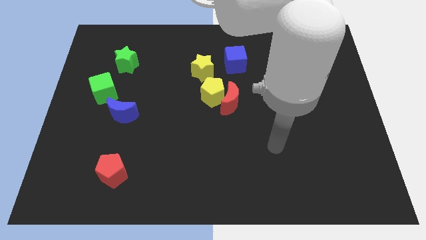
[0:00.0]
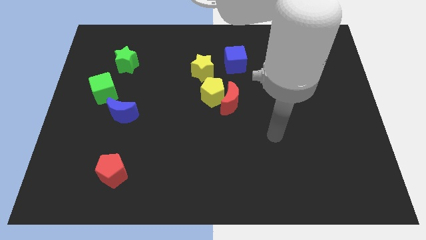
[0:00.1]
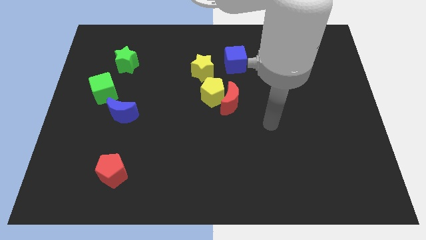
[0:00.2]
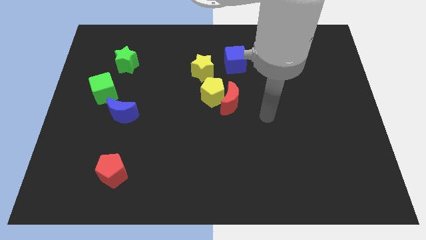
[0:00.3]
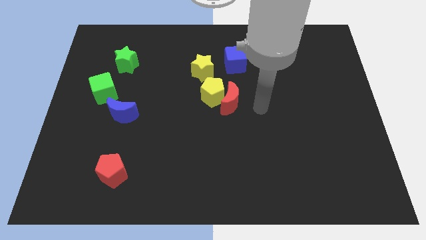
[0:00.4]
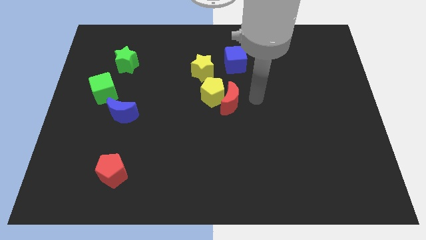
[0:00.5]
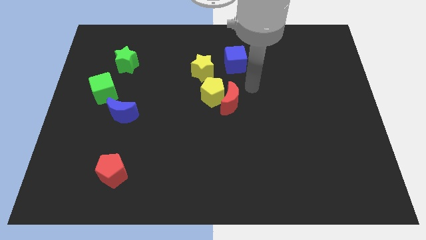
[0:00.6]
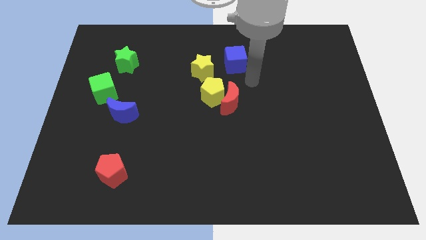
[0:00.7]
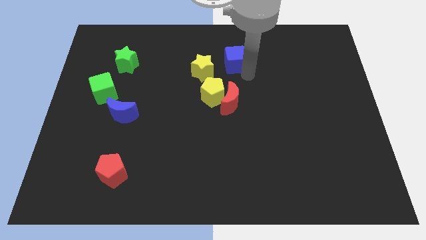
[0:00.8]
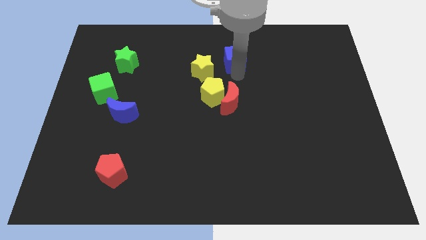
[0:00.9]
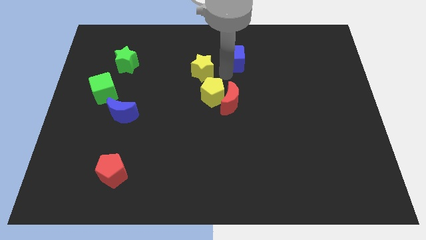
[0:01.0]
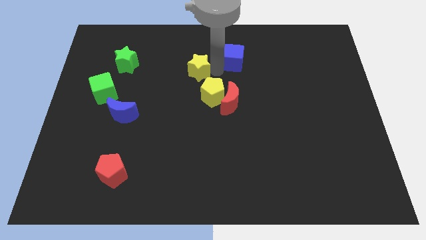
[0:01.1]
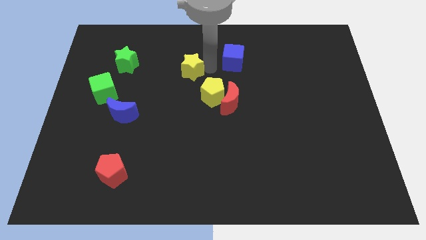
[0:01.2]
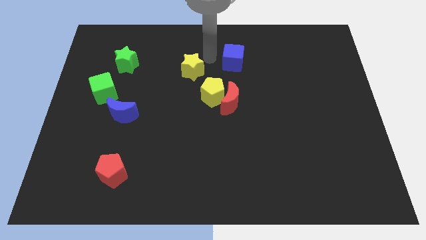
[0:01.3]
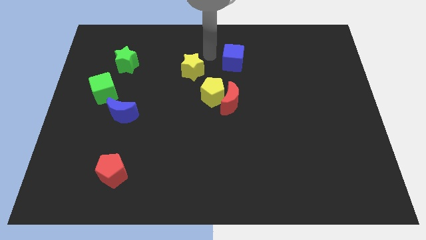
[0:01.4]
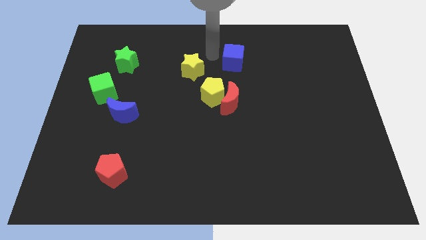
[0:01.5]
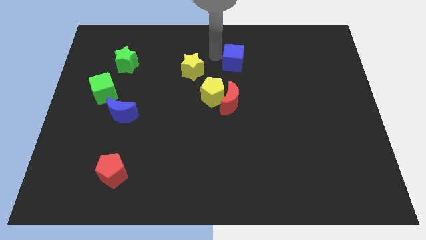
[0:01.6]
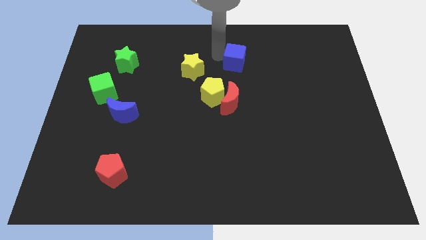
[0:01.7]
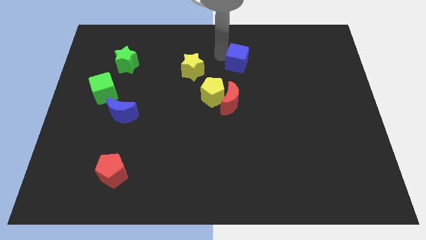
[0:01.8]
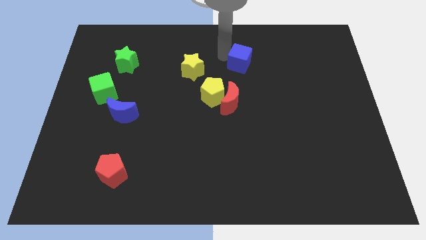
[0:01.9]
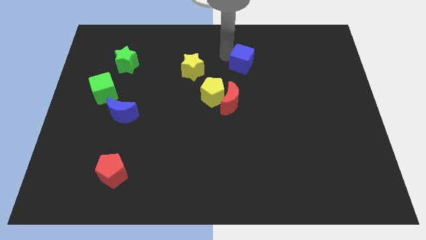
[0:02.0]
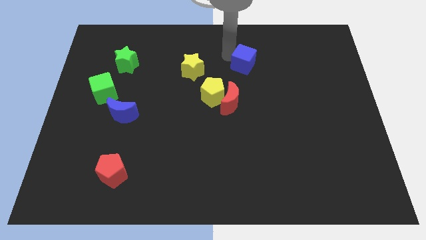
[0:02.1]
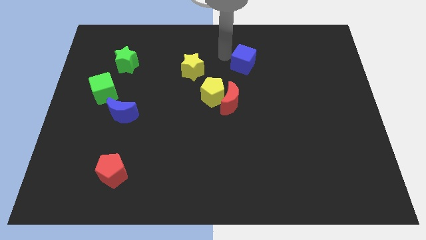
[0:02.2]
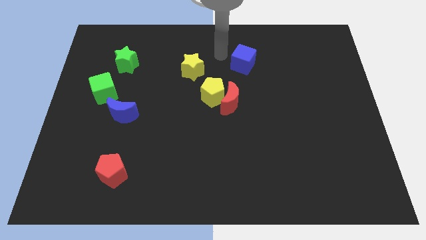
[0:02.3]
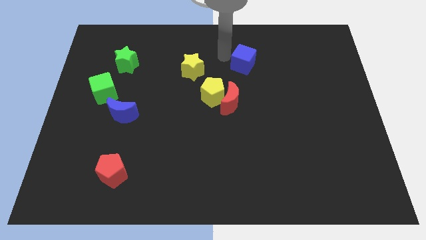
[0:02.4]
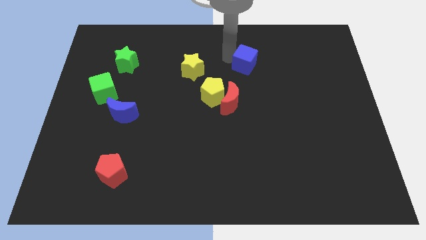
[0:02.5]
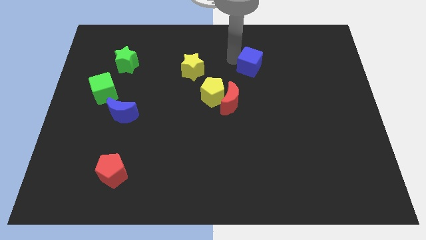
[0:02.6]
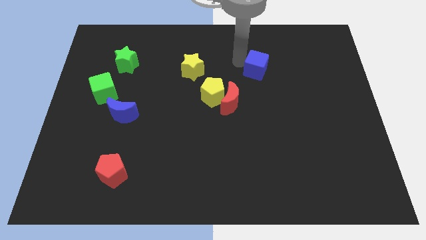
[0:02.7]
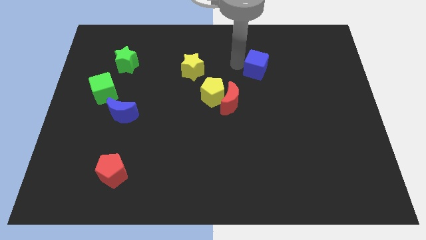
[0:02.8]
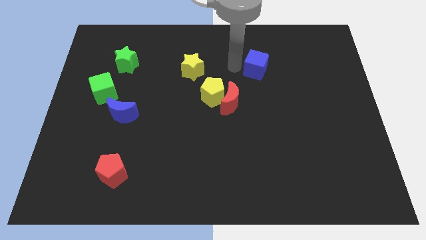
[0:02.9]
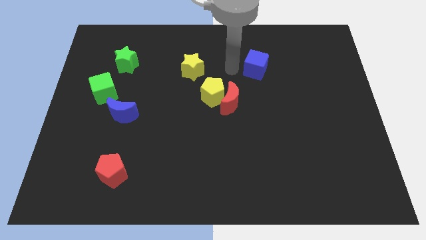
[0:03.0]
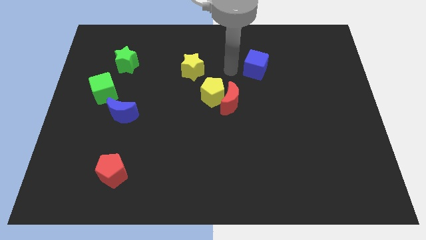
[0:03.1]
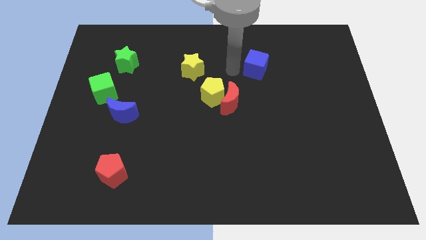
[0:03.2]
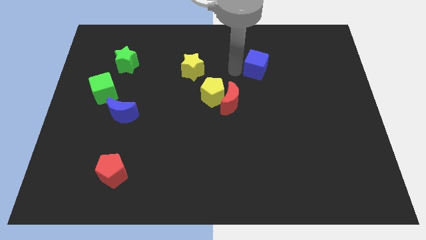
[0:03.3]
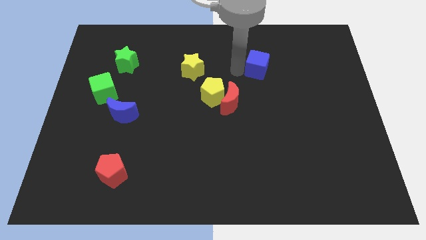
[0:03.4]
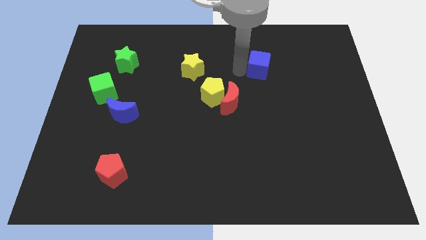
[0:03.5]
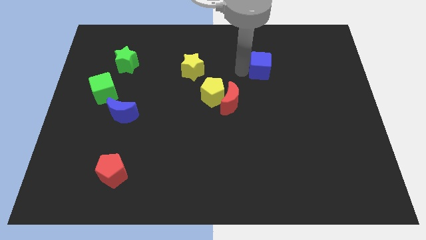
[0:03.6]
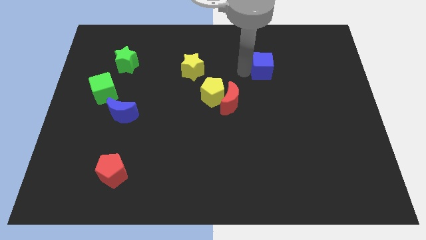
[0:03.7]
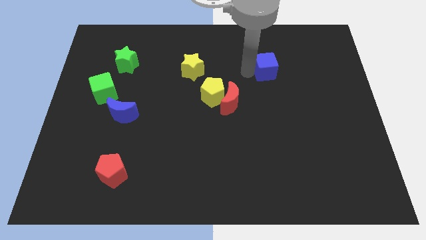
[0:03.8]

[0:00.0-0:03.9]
move the blue cube right a little

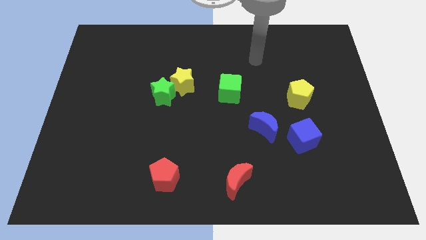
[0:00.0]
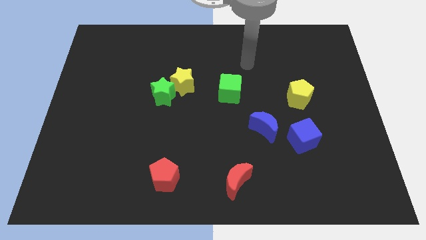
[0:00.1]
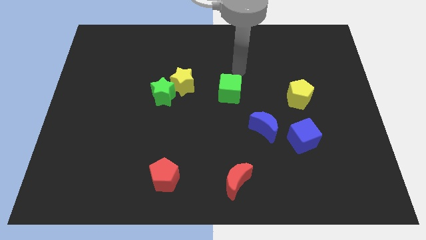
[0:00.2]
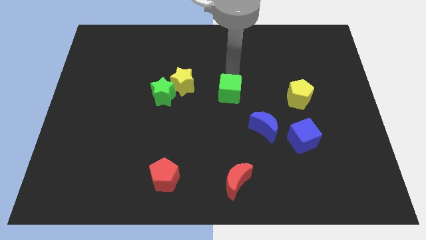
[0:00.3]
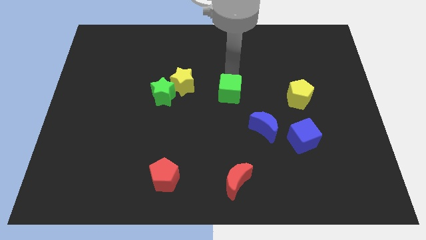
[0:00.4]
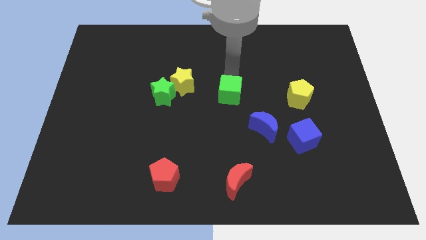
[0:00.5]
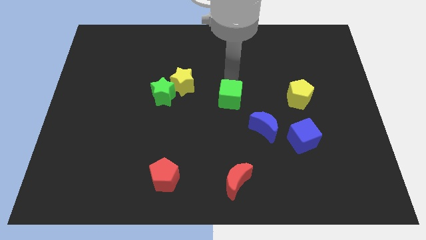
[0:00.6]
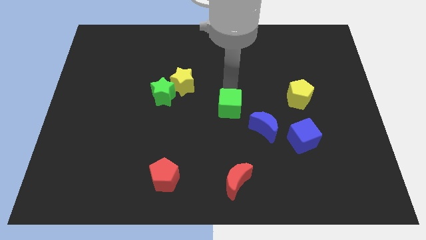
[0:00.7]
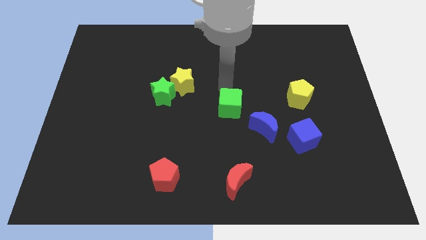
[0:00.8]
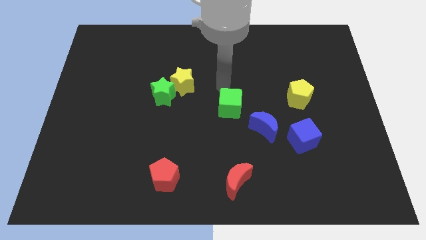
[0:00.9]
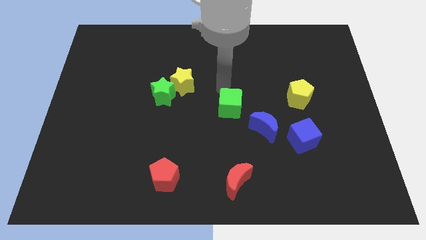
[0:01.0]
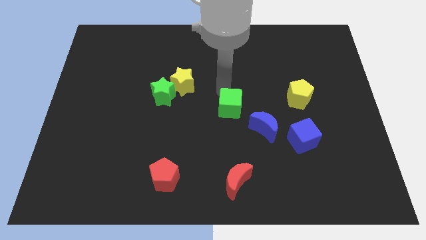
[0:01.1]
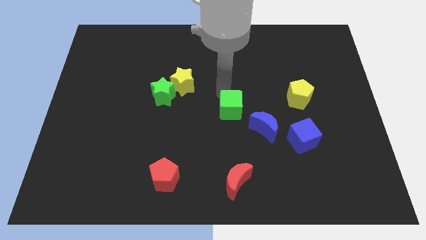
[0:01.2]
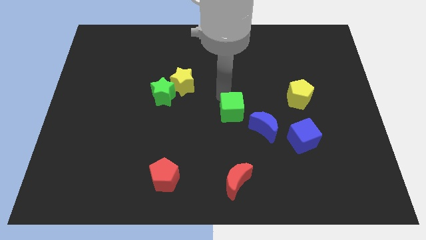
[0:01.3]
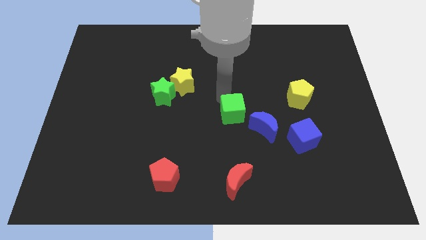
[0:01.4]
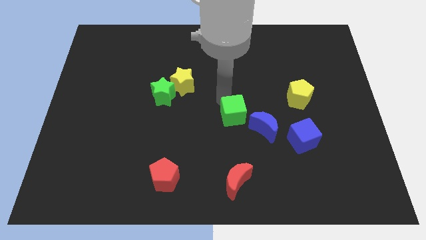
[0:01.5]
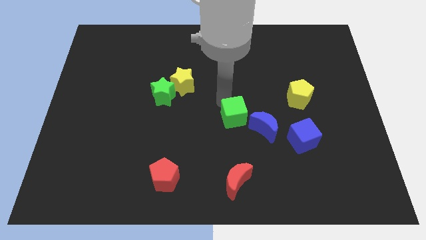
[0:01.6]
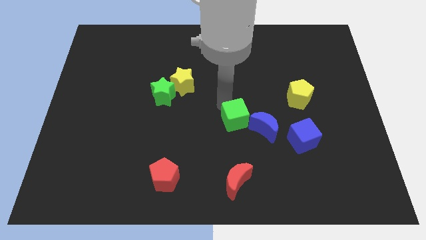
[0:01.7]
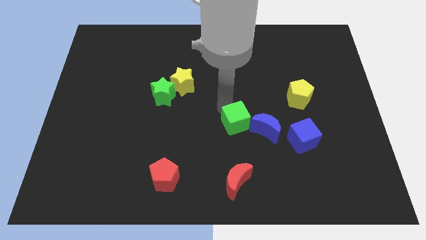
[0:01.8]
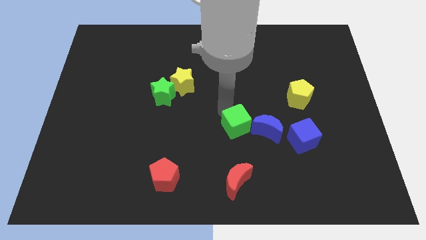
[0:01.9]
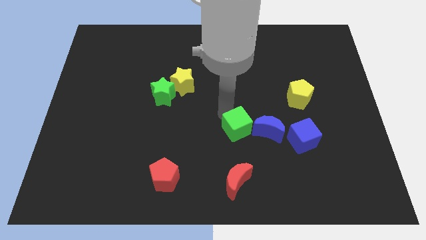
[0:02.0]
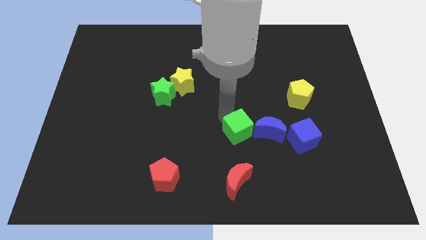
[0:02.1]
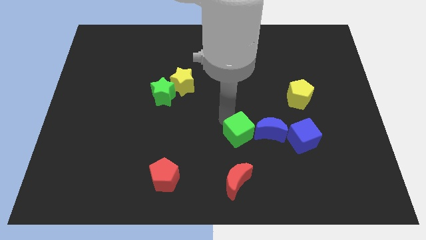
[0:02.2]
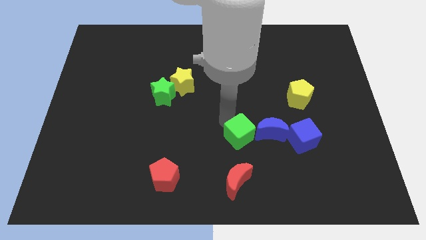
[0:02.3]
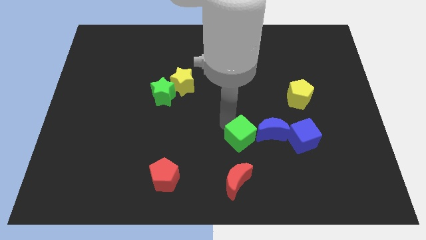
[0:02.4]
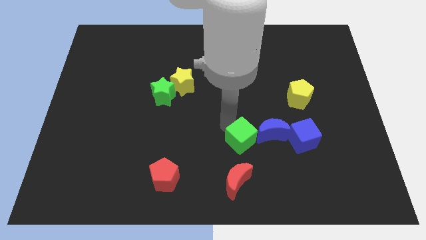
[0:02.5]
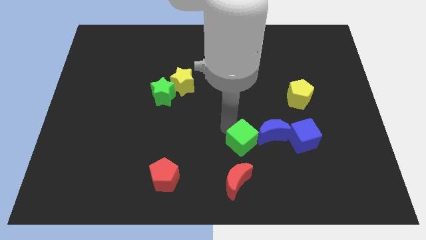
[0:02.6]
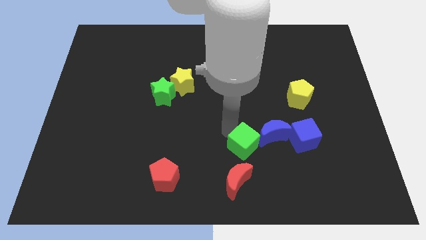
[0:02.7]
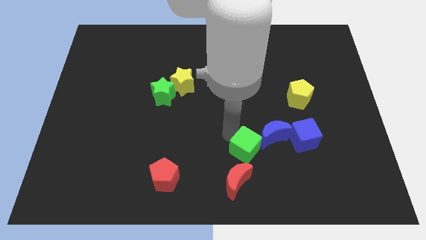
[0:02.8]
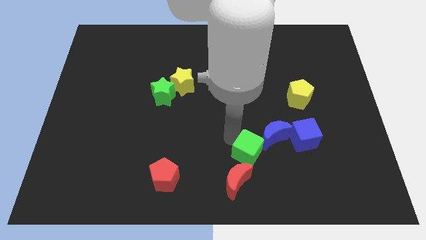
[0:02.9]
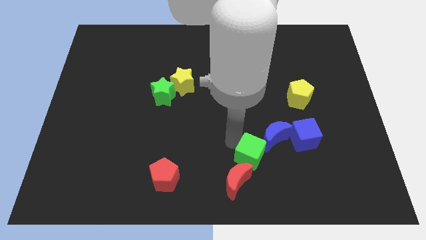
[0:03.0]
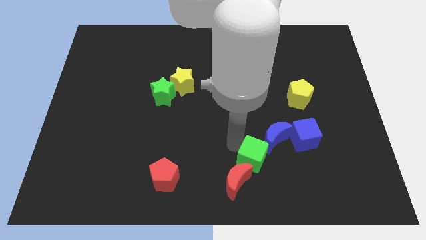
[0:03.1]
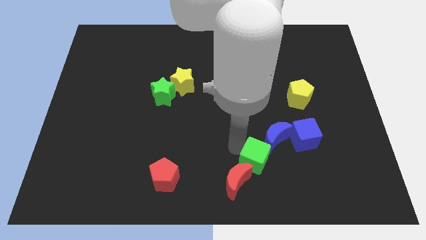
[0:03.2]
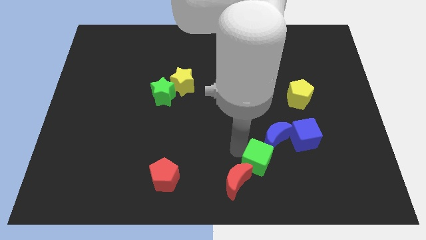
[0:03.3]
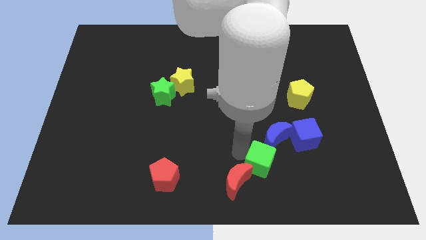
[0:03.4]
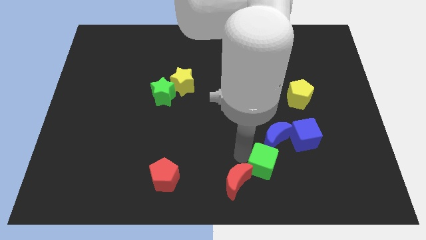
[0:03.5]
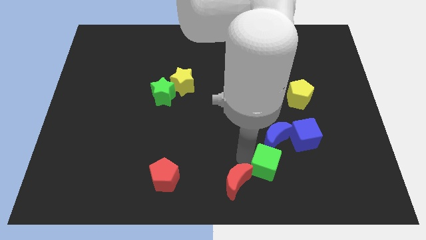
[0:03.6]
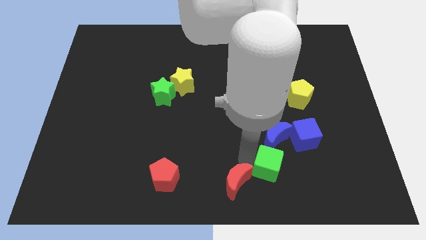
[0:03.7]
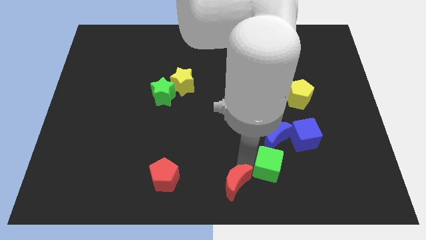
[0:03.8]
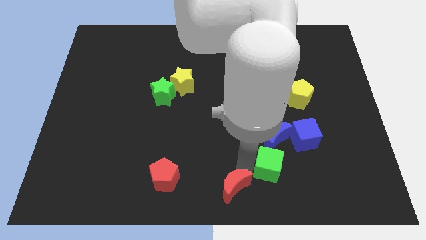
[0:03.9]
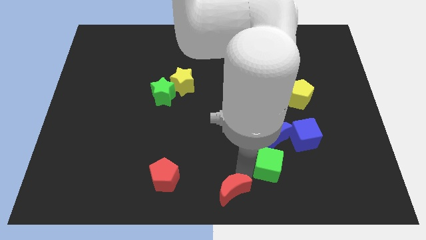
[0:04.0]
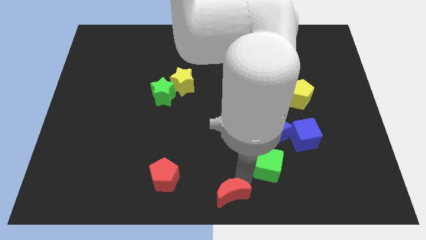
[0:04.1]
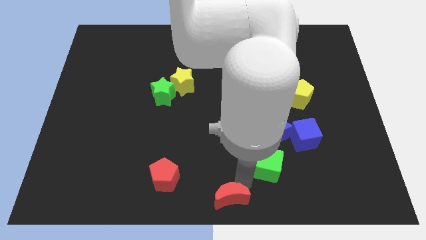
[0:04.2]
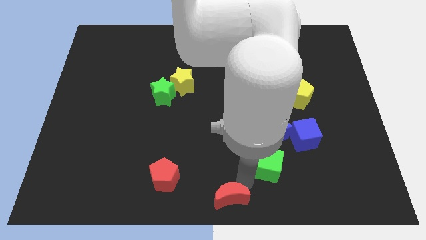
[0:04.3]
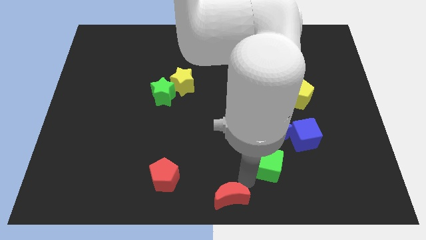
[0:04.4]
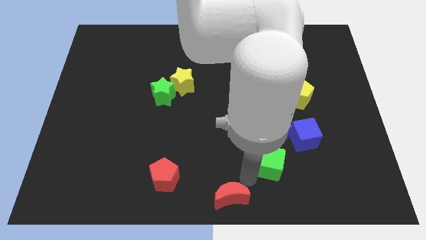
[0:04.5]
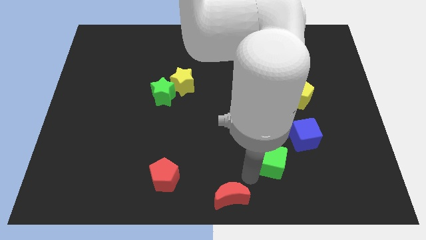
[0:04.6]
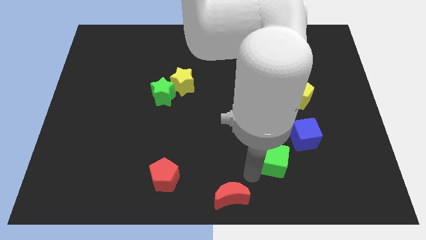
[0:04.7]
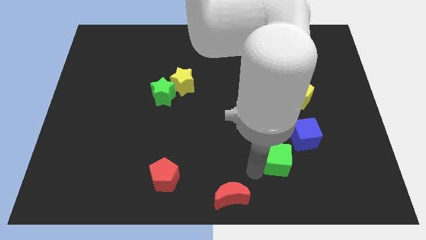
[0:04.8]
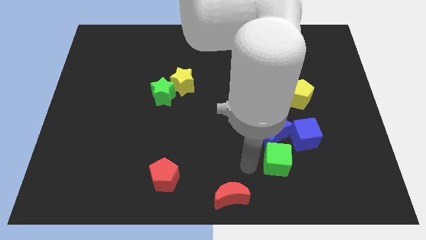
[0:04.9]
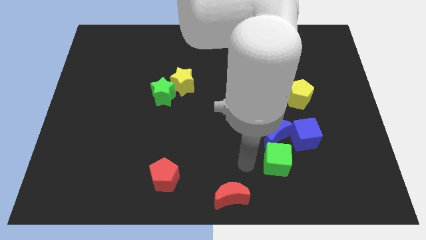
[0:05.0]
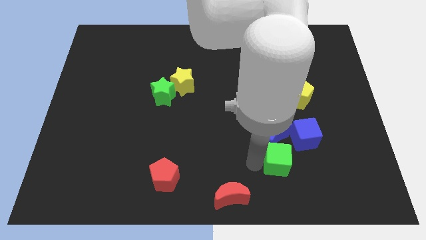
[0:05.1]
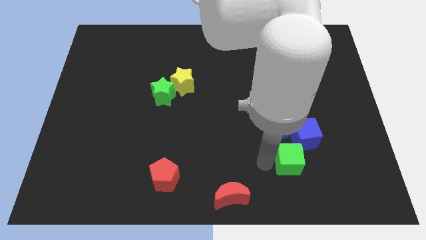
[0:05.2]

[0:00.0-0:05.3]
move the green cube downwards and right
